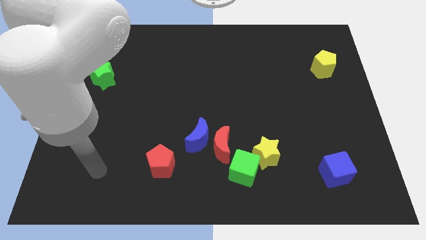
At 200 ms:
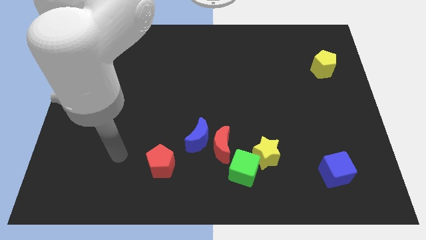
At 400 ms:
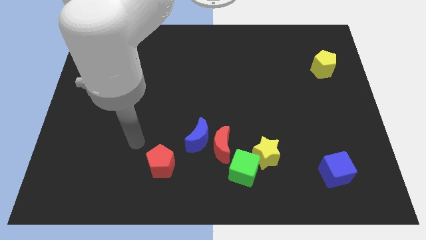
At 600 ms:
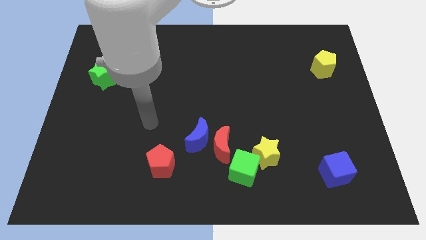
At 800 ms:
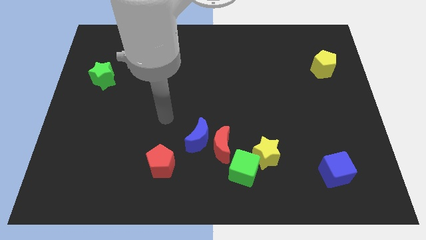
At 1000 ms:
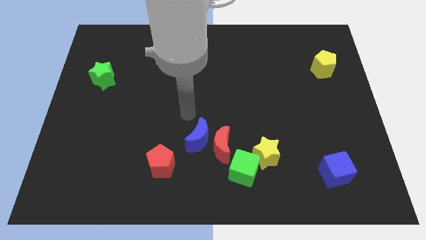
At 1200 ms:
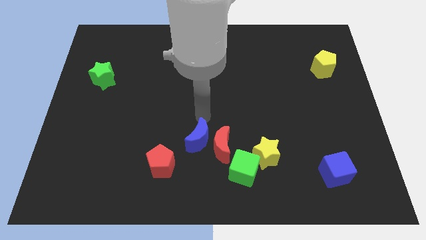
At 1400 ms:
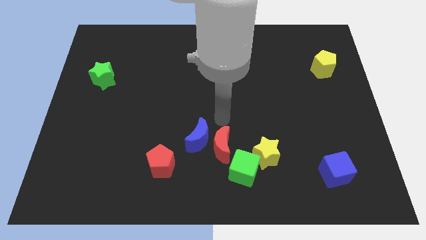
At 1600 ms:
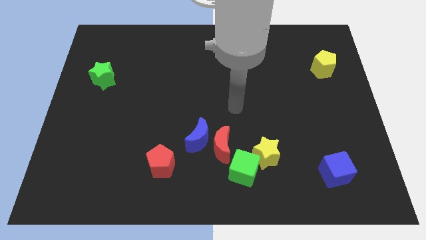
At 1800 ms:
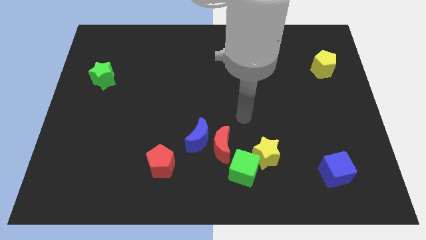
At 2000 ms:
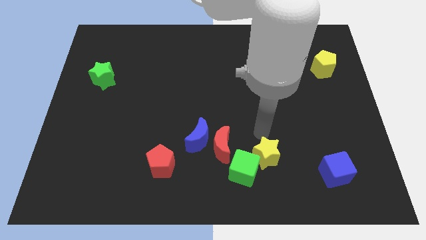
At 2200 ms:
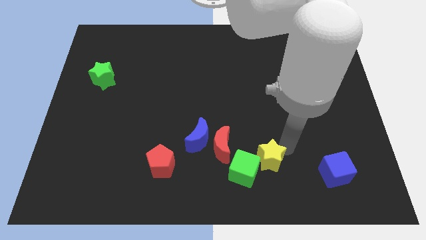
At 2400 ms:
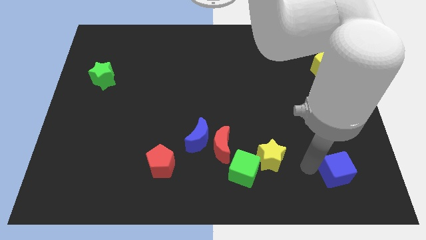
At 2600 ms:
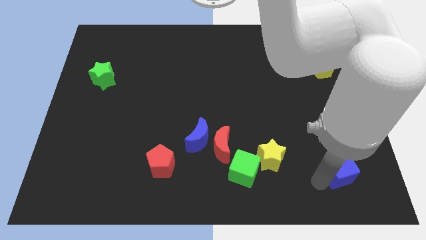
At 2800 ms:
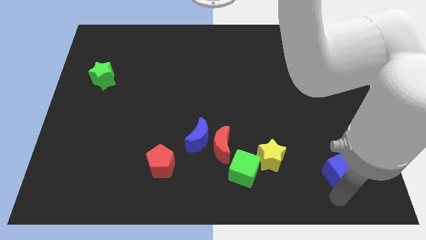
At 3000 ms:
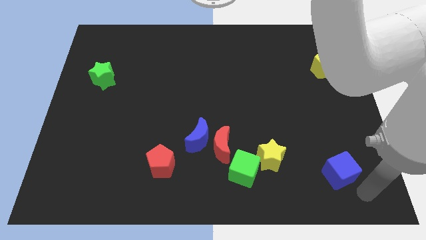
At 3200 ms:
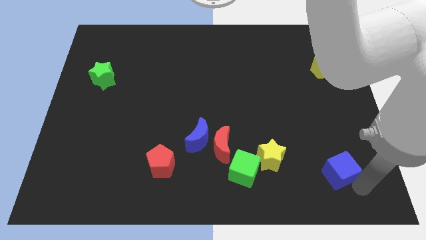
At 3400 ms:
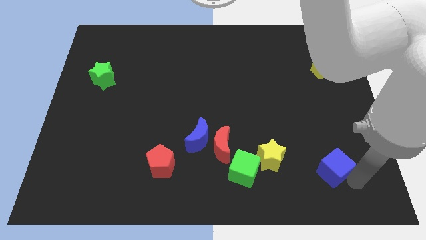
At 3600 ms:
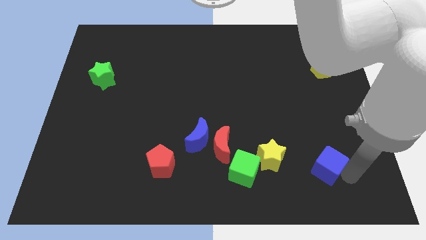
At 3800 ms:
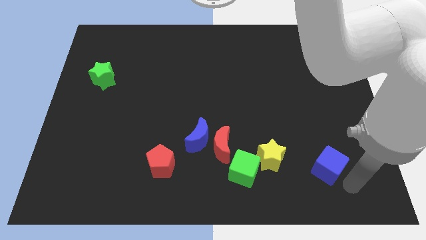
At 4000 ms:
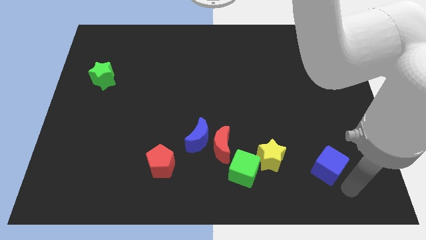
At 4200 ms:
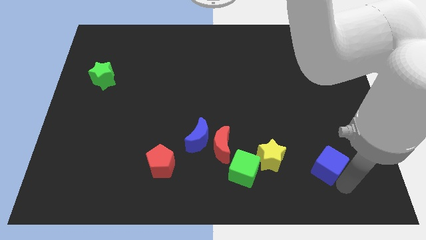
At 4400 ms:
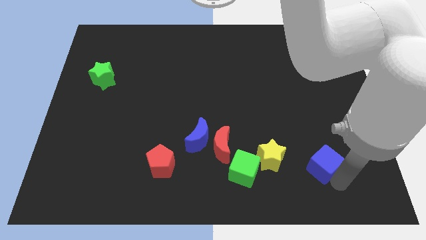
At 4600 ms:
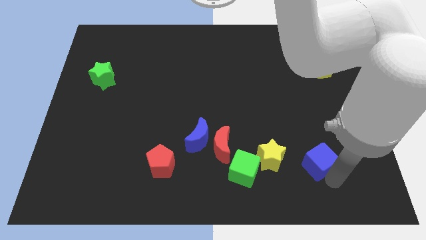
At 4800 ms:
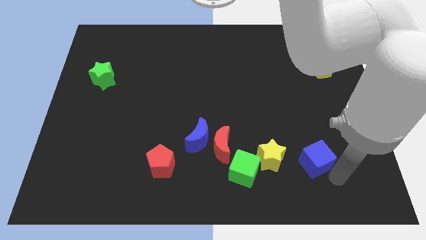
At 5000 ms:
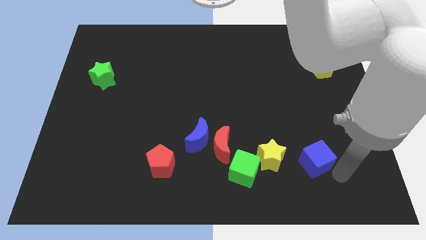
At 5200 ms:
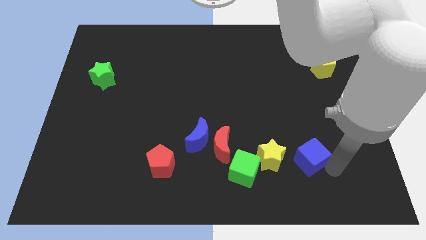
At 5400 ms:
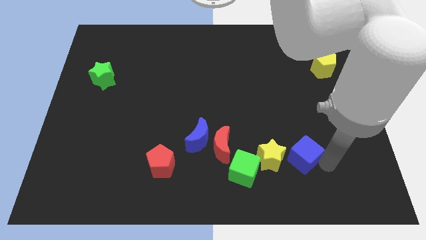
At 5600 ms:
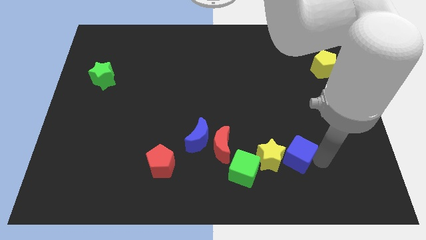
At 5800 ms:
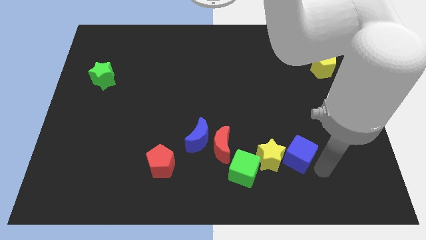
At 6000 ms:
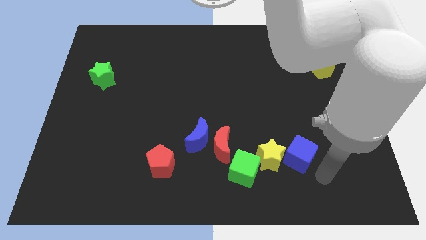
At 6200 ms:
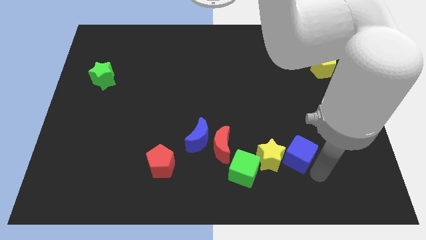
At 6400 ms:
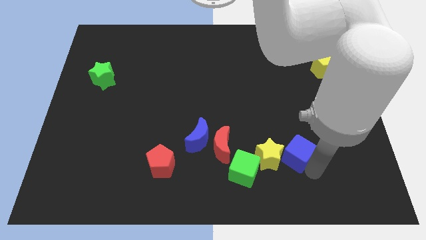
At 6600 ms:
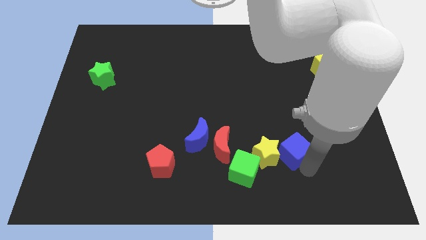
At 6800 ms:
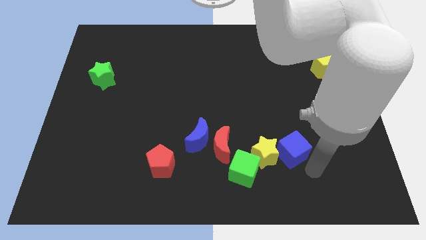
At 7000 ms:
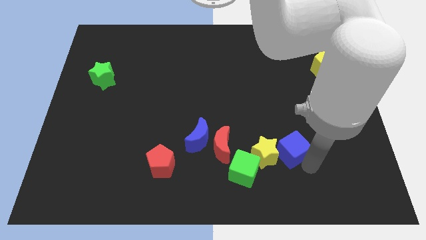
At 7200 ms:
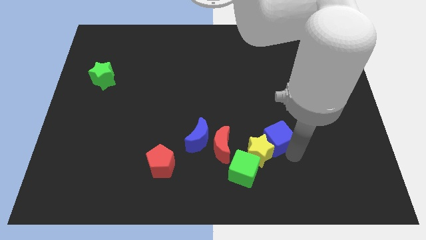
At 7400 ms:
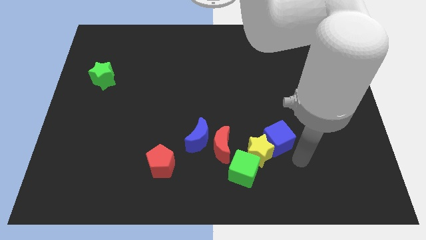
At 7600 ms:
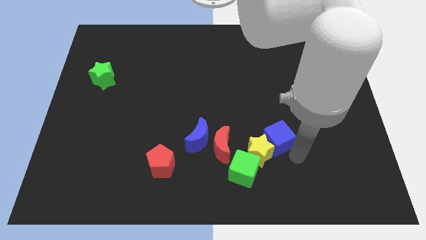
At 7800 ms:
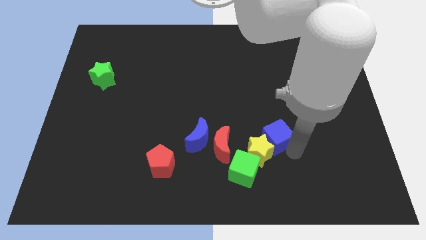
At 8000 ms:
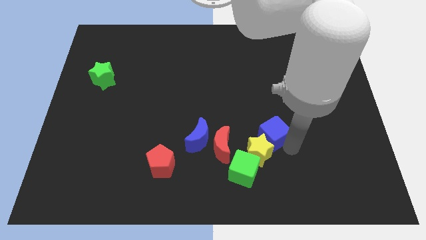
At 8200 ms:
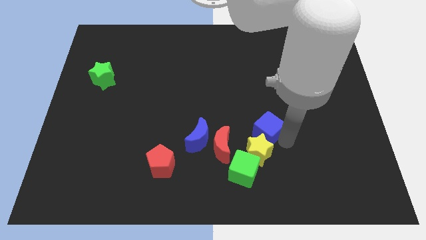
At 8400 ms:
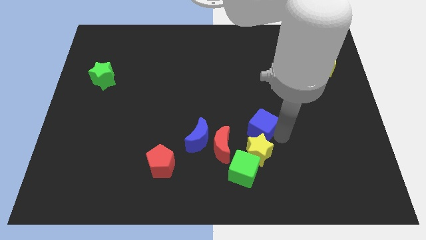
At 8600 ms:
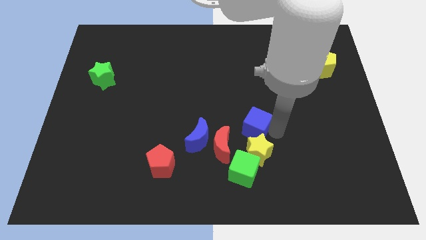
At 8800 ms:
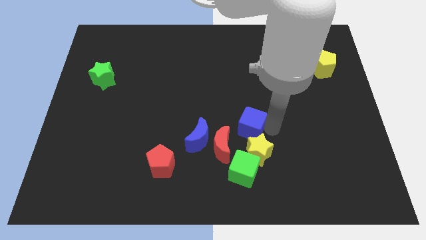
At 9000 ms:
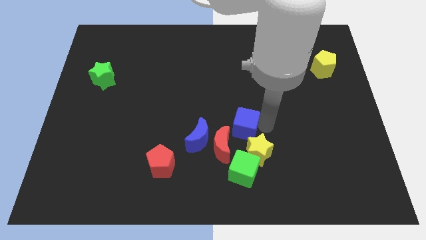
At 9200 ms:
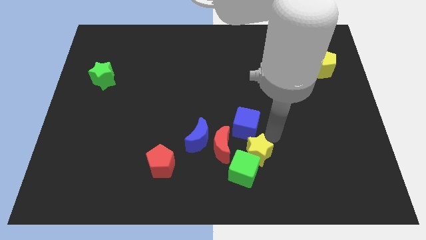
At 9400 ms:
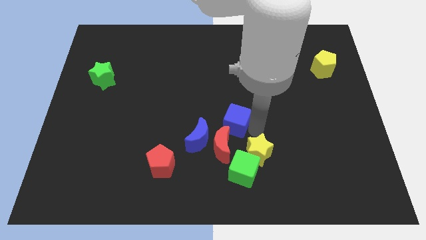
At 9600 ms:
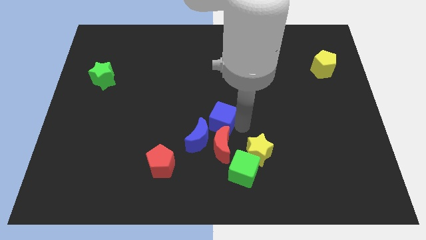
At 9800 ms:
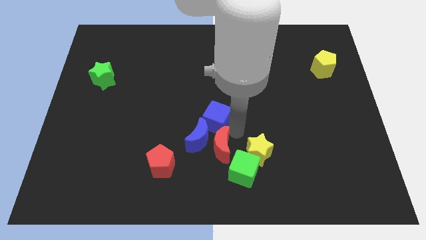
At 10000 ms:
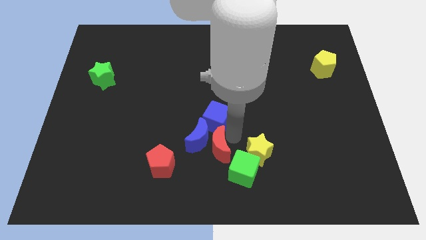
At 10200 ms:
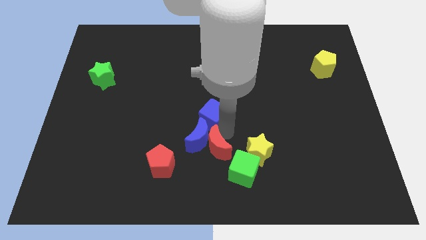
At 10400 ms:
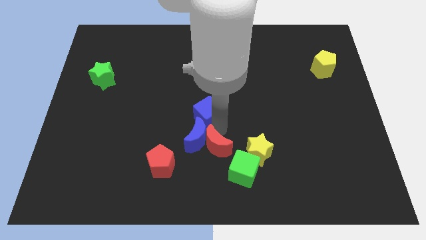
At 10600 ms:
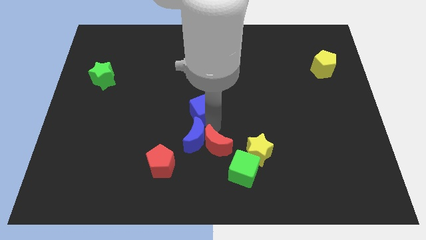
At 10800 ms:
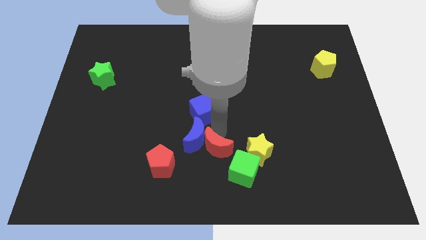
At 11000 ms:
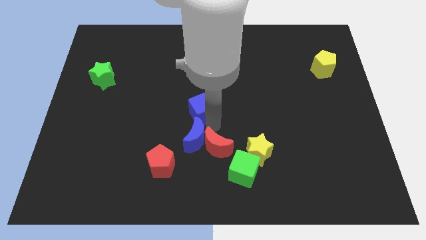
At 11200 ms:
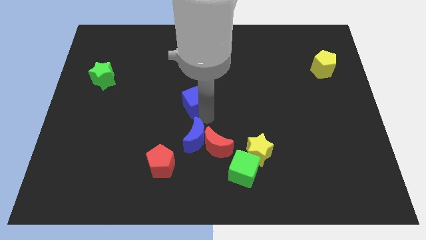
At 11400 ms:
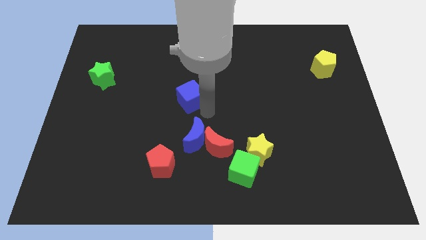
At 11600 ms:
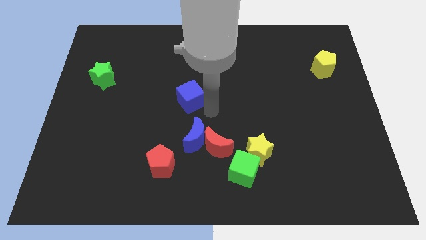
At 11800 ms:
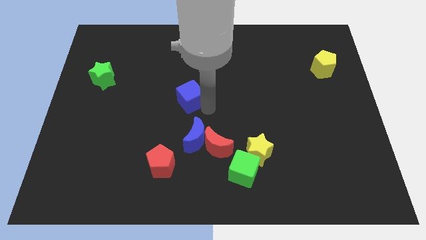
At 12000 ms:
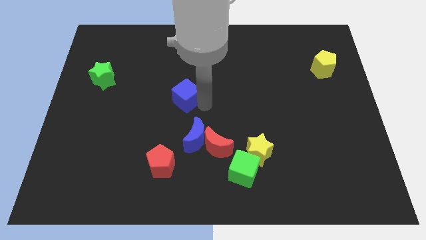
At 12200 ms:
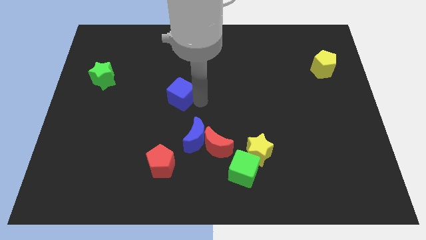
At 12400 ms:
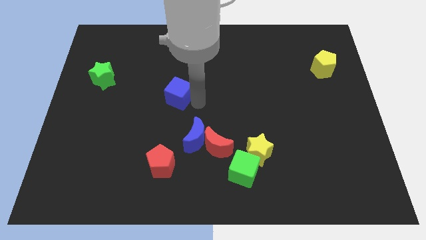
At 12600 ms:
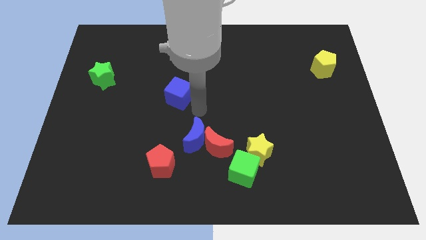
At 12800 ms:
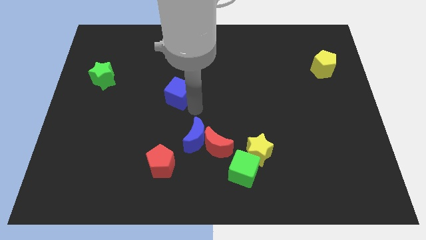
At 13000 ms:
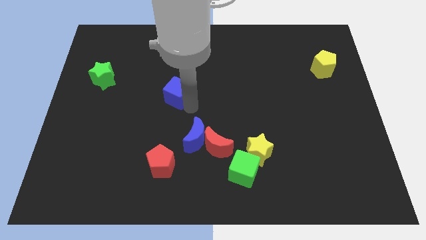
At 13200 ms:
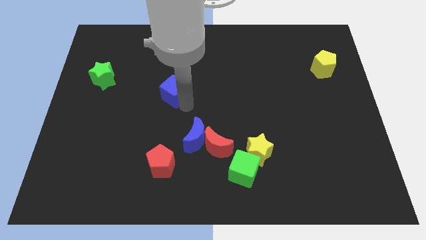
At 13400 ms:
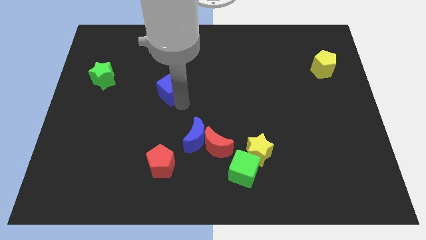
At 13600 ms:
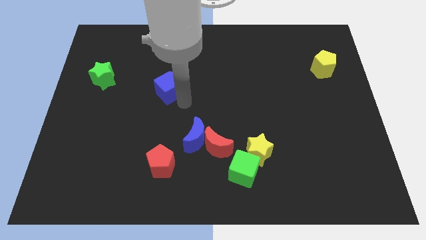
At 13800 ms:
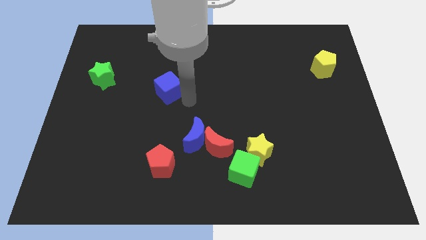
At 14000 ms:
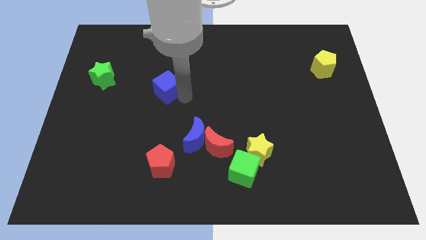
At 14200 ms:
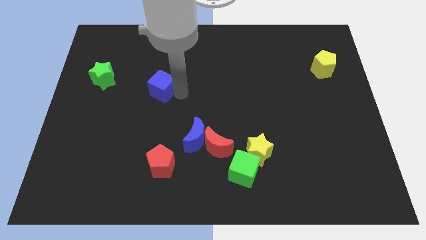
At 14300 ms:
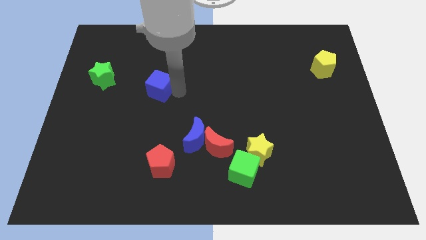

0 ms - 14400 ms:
put the blue cube to the right side of the green star
